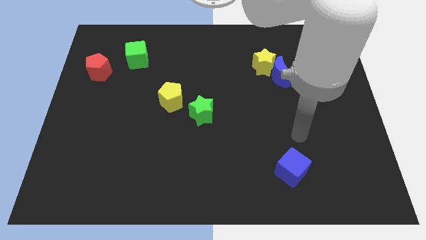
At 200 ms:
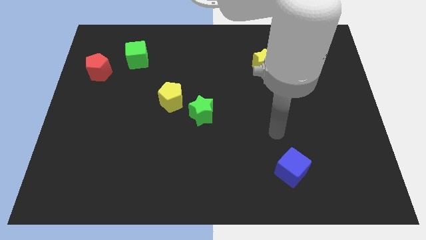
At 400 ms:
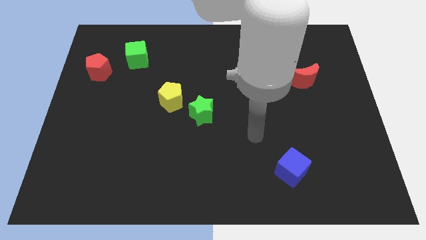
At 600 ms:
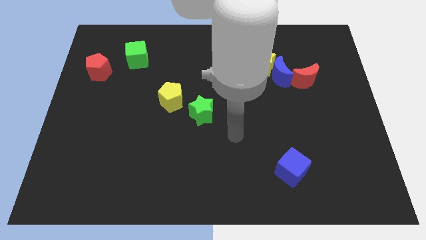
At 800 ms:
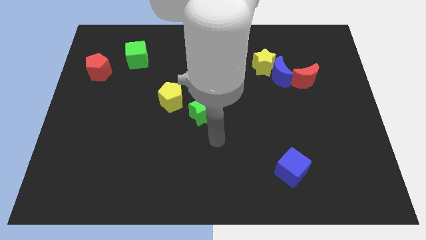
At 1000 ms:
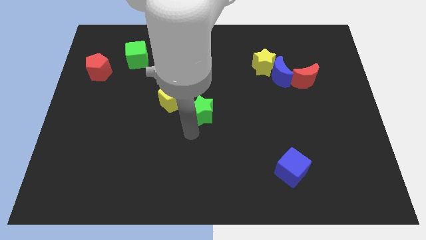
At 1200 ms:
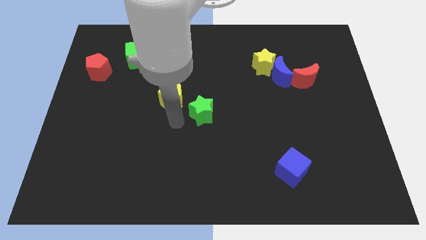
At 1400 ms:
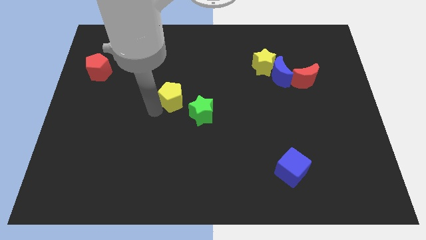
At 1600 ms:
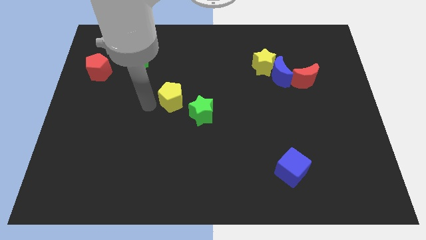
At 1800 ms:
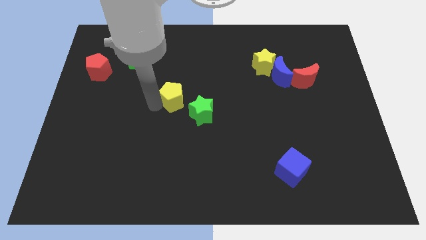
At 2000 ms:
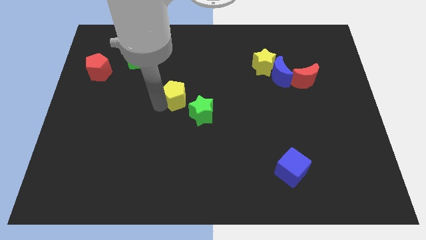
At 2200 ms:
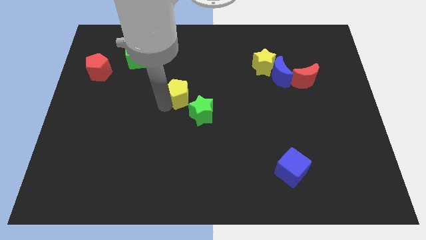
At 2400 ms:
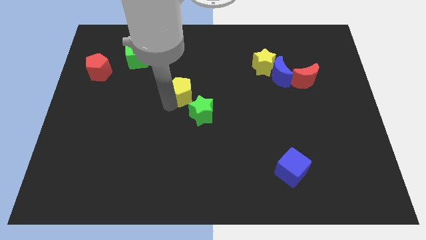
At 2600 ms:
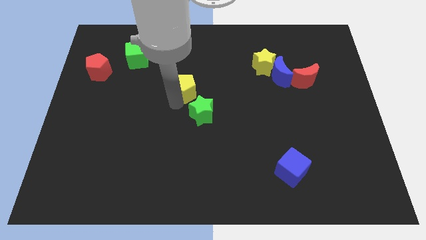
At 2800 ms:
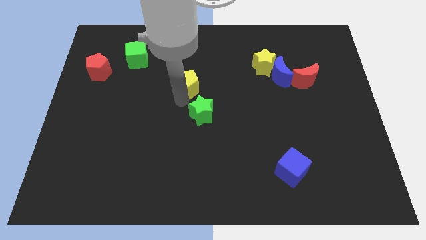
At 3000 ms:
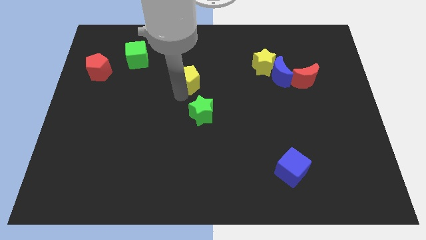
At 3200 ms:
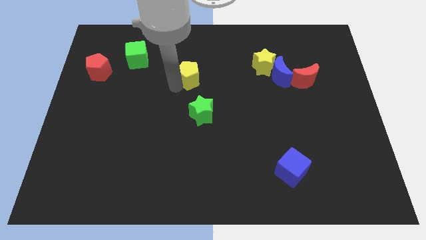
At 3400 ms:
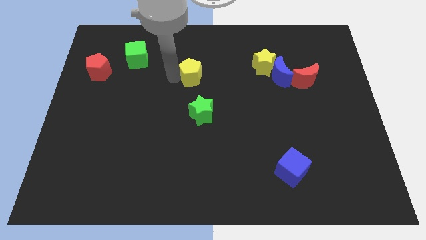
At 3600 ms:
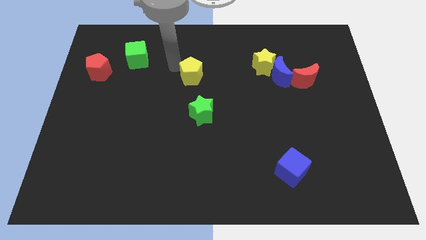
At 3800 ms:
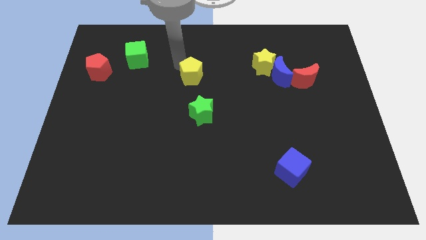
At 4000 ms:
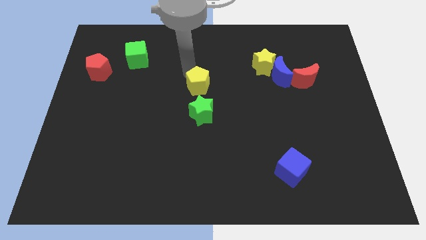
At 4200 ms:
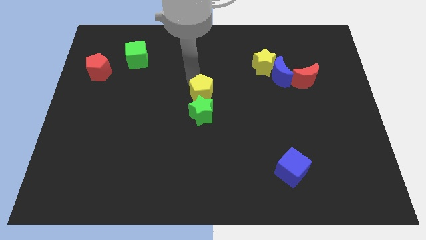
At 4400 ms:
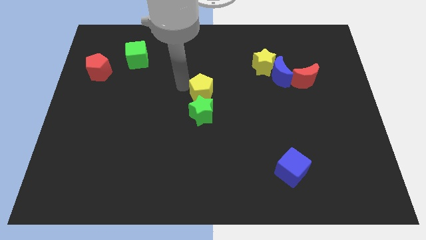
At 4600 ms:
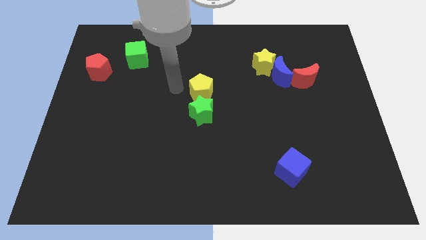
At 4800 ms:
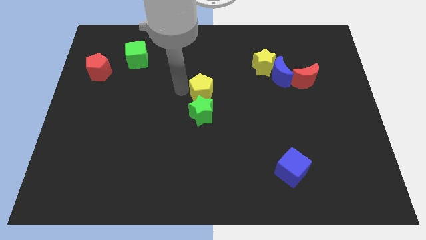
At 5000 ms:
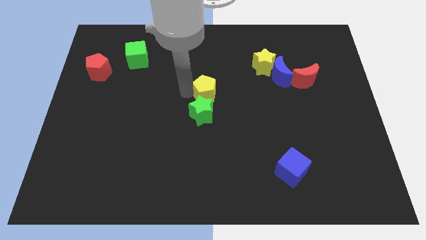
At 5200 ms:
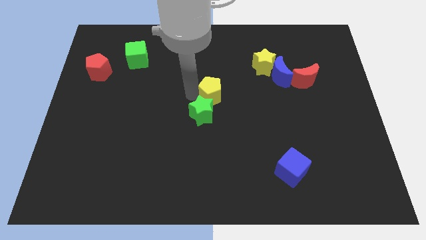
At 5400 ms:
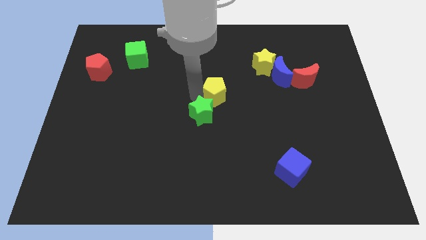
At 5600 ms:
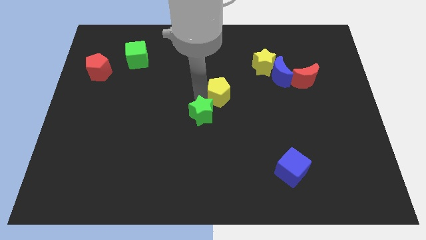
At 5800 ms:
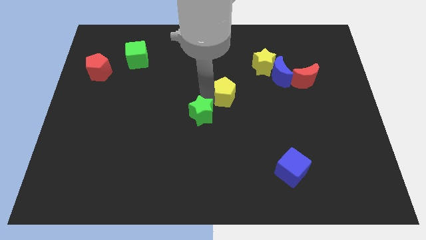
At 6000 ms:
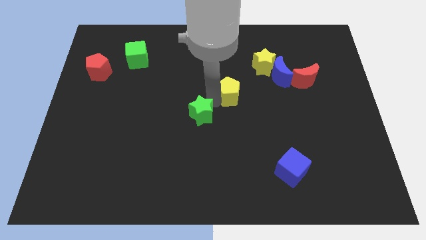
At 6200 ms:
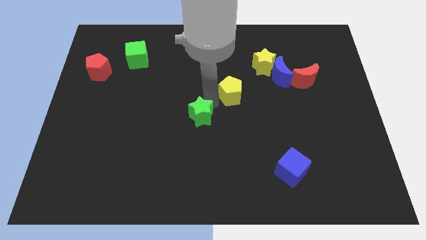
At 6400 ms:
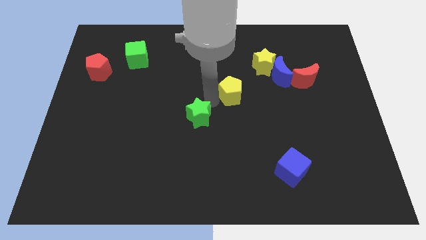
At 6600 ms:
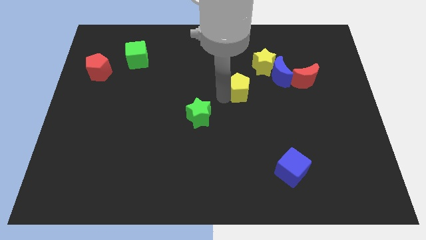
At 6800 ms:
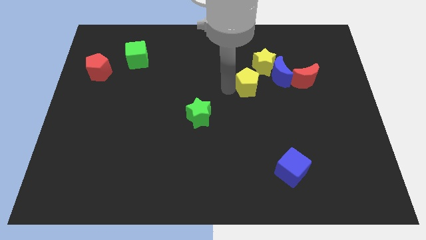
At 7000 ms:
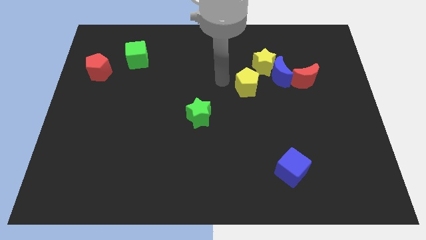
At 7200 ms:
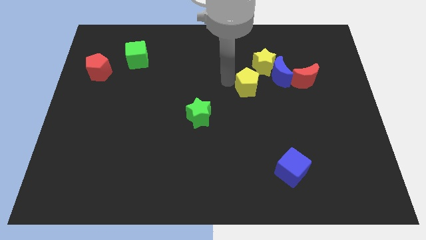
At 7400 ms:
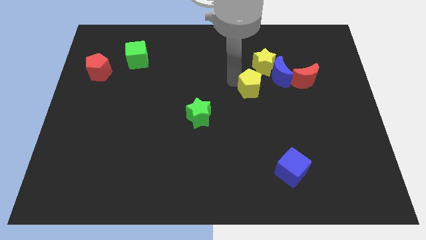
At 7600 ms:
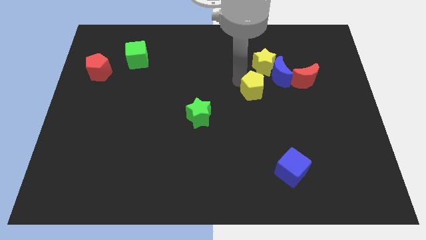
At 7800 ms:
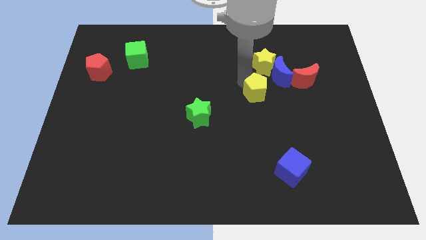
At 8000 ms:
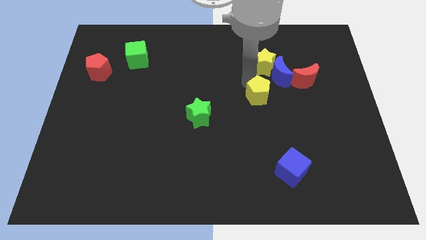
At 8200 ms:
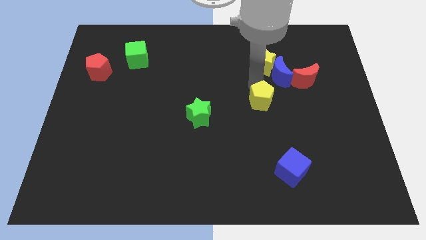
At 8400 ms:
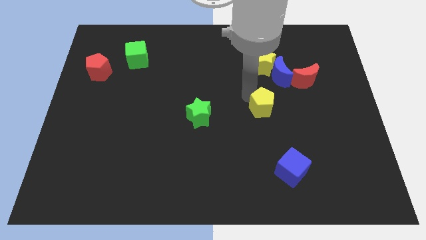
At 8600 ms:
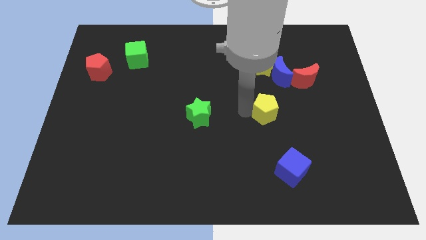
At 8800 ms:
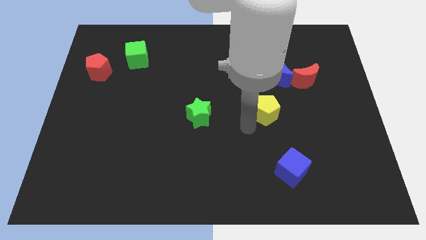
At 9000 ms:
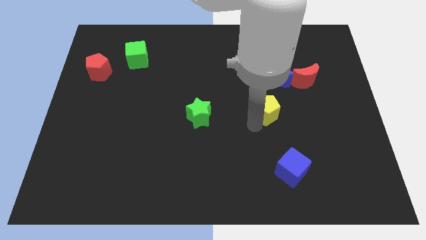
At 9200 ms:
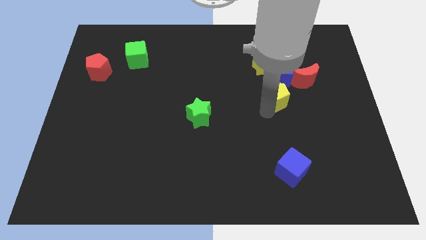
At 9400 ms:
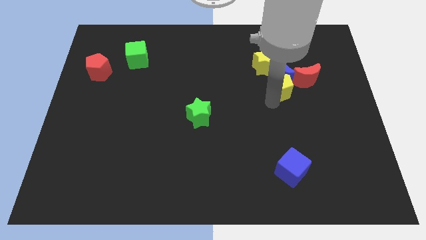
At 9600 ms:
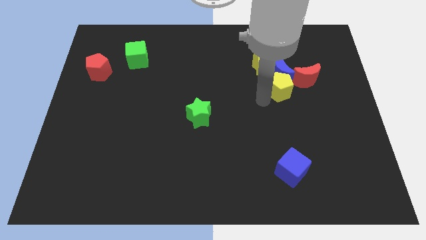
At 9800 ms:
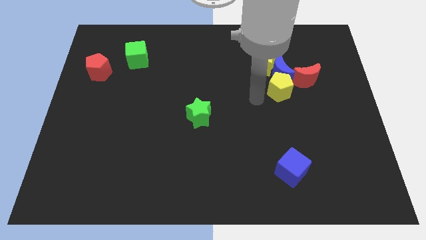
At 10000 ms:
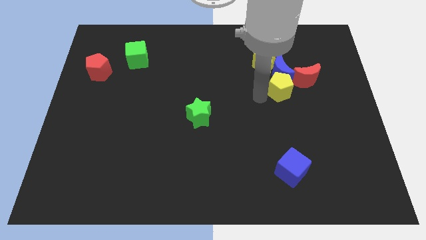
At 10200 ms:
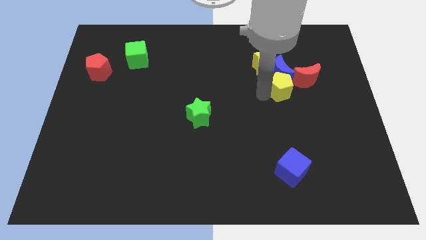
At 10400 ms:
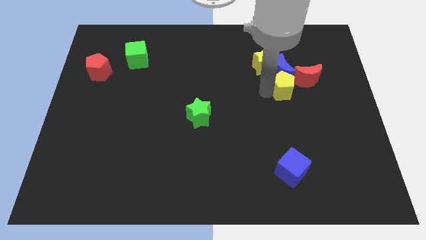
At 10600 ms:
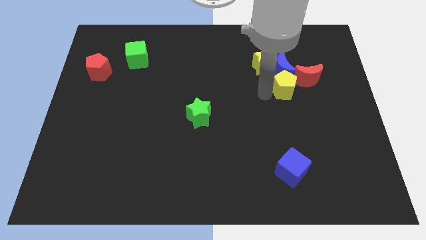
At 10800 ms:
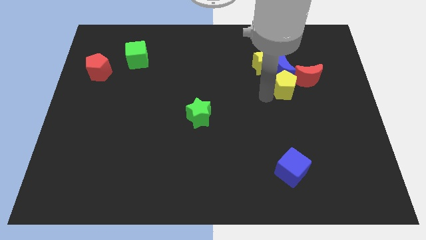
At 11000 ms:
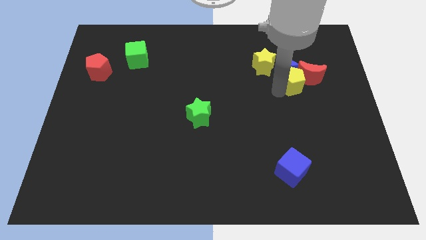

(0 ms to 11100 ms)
push the yellow pentagon towards the red moon

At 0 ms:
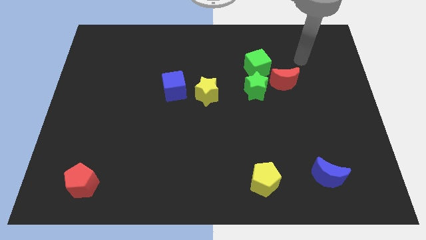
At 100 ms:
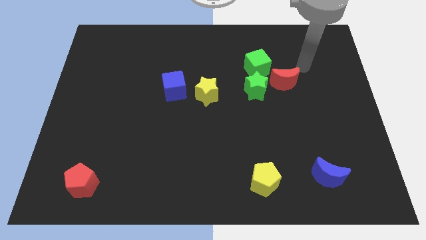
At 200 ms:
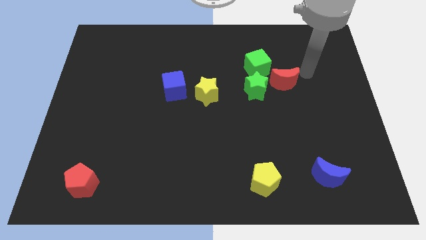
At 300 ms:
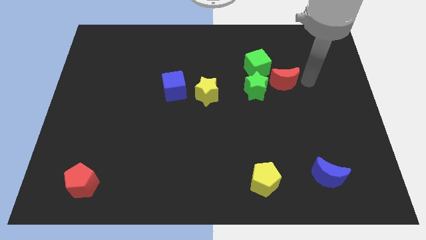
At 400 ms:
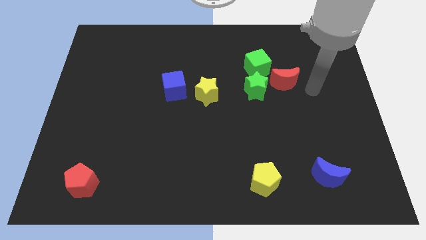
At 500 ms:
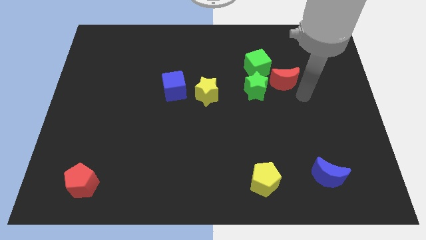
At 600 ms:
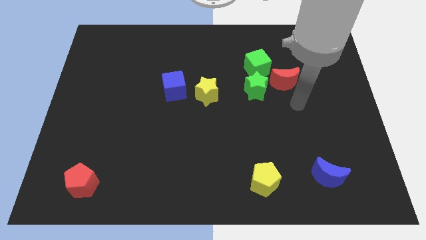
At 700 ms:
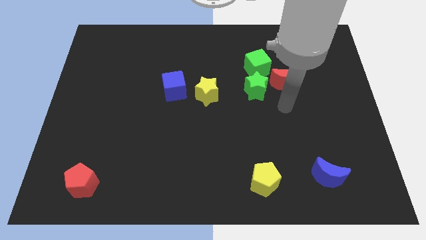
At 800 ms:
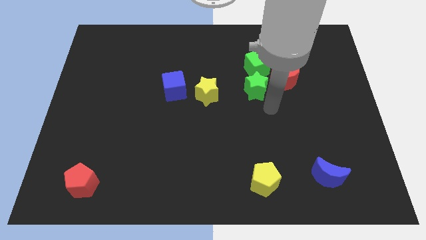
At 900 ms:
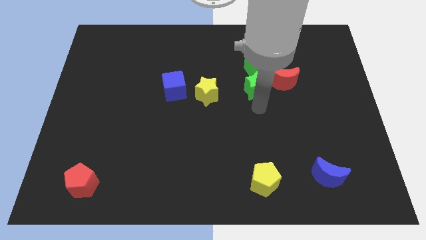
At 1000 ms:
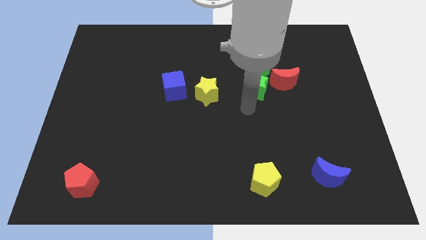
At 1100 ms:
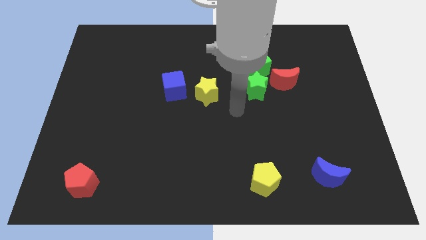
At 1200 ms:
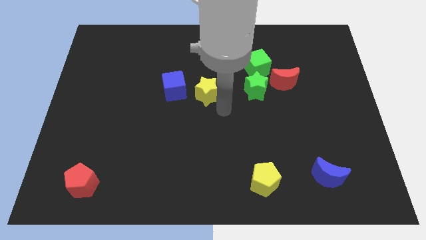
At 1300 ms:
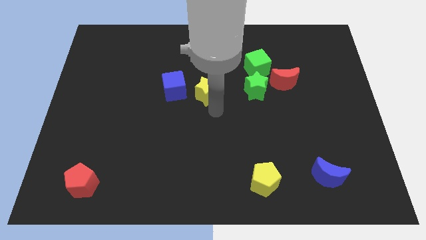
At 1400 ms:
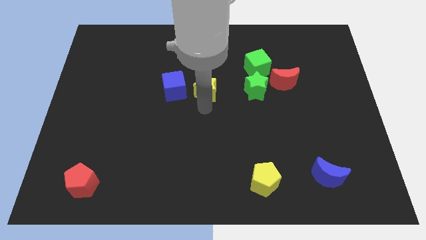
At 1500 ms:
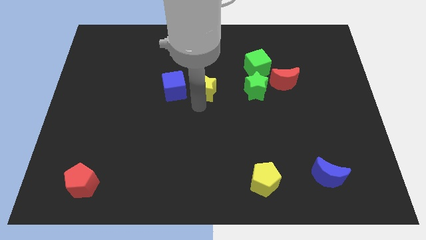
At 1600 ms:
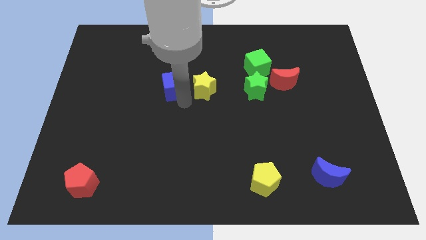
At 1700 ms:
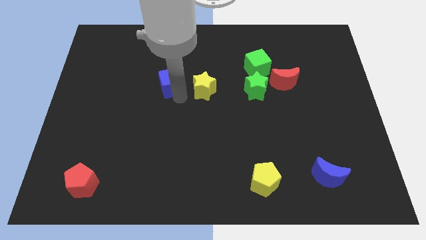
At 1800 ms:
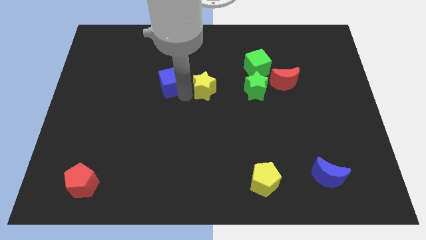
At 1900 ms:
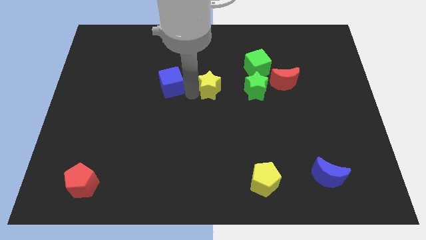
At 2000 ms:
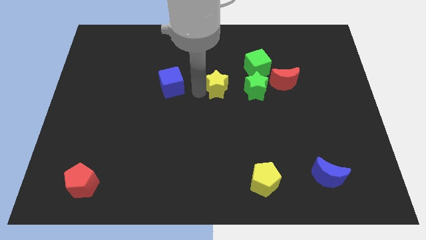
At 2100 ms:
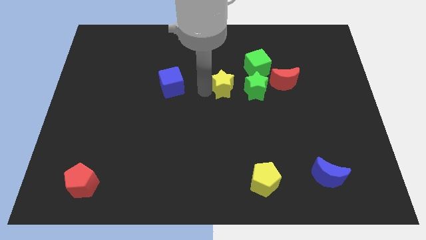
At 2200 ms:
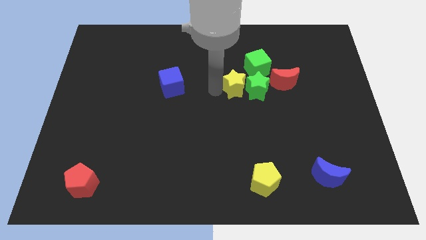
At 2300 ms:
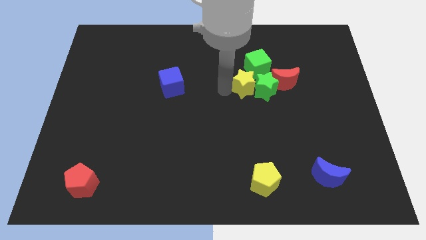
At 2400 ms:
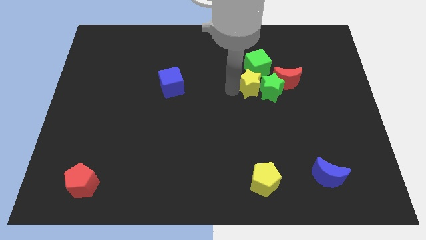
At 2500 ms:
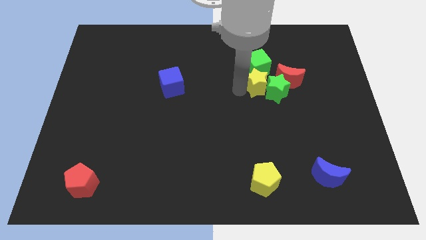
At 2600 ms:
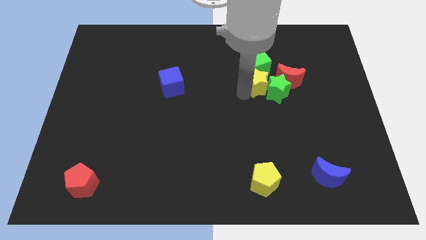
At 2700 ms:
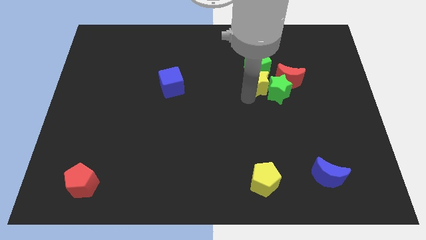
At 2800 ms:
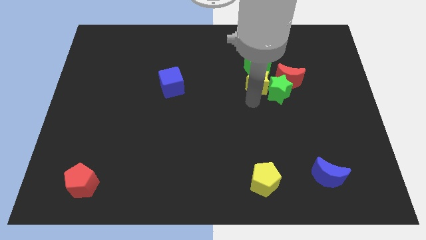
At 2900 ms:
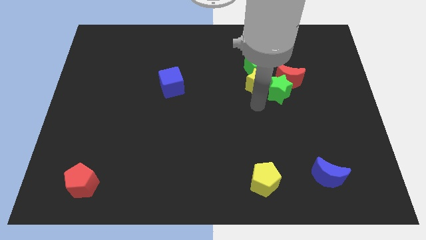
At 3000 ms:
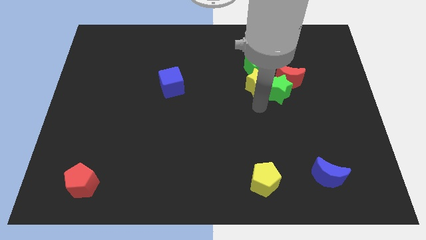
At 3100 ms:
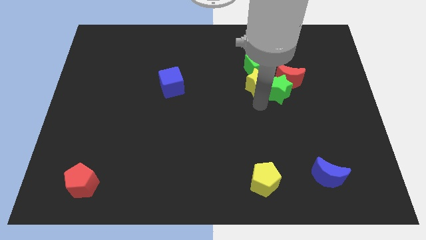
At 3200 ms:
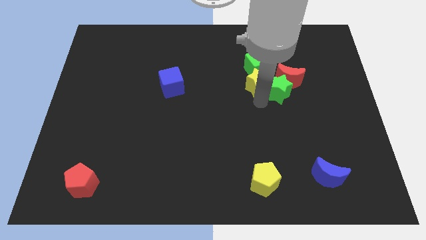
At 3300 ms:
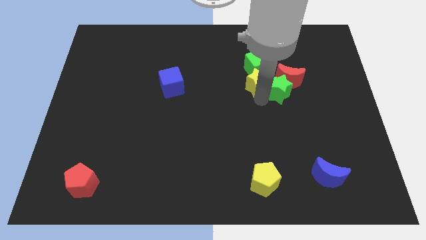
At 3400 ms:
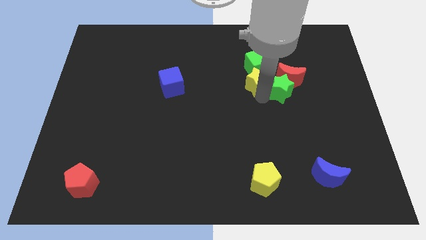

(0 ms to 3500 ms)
push the yellow star close to the green cube
